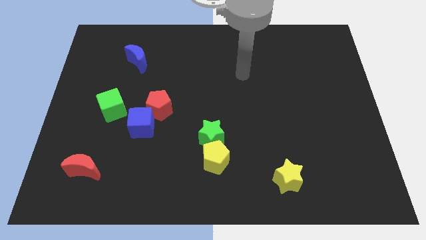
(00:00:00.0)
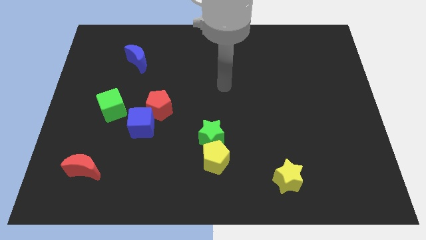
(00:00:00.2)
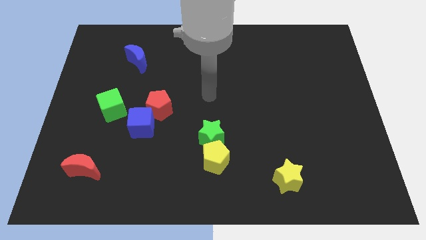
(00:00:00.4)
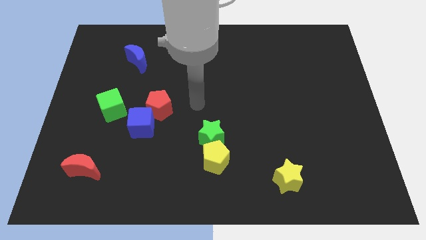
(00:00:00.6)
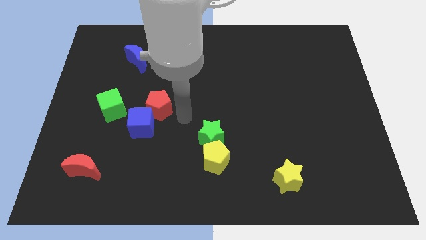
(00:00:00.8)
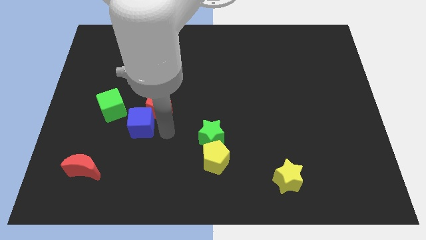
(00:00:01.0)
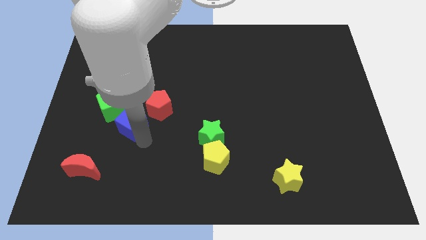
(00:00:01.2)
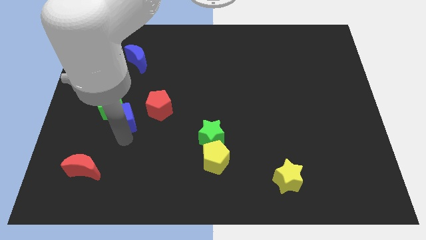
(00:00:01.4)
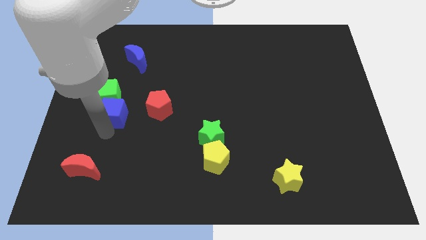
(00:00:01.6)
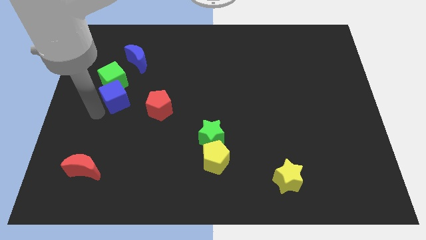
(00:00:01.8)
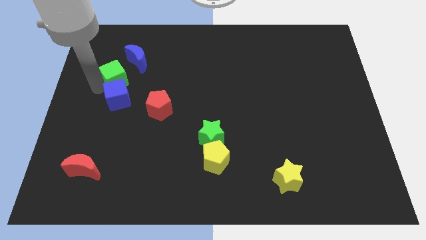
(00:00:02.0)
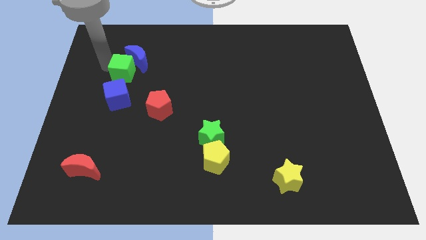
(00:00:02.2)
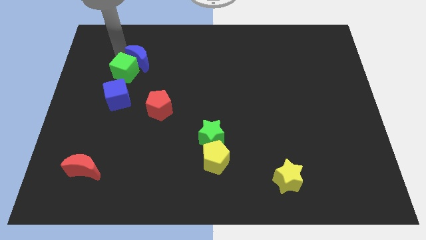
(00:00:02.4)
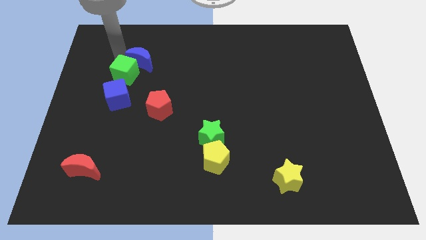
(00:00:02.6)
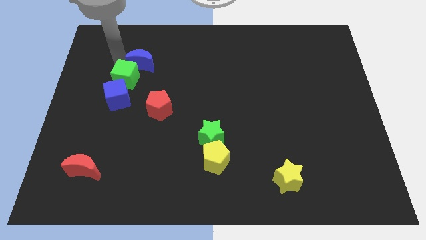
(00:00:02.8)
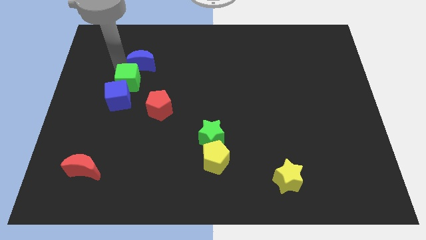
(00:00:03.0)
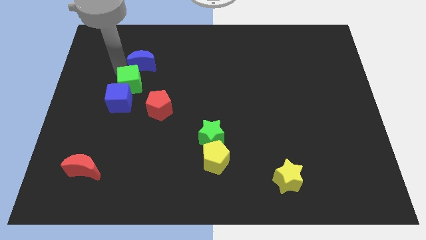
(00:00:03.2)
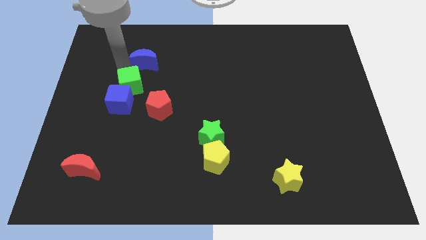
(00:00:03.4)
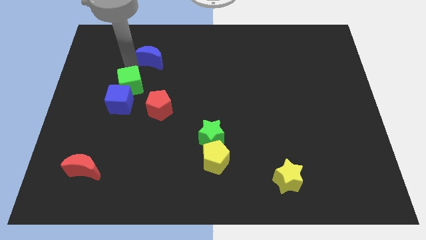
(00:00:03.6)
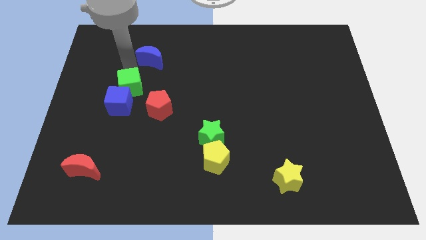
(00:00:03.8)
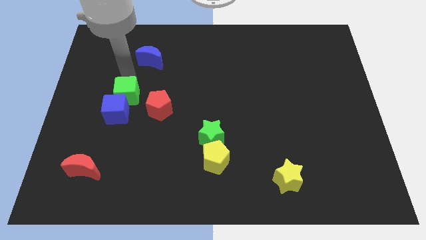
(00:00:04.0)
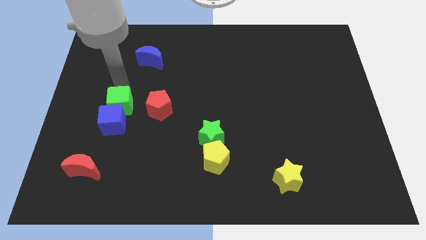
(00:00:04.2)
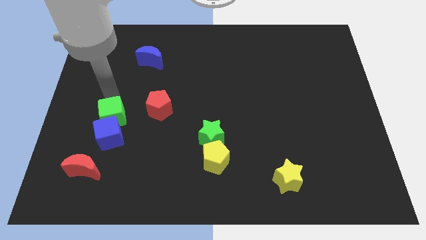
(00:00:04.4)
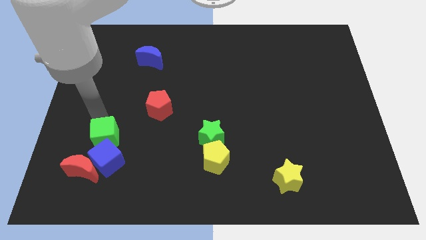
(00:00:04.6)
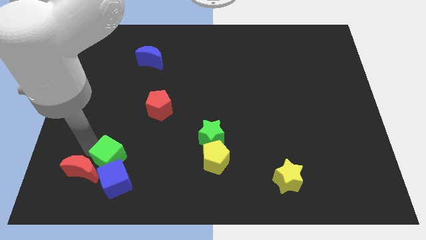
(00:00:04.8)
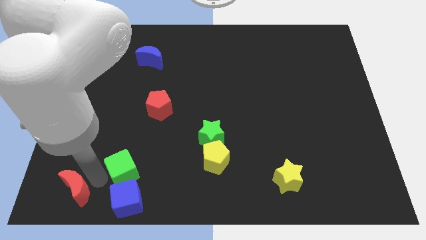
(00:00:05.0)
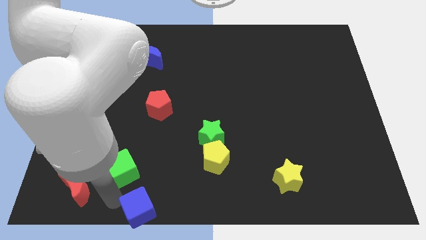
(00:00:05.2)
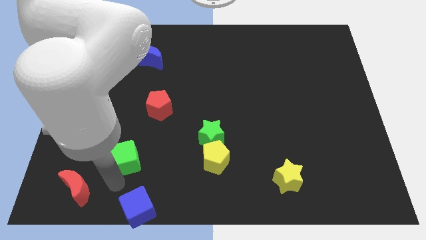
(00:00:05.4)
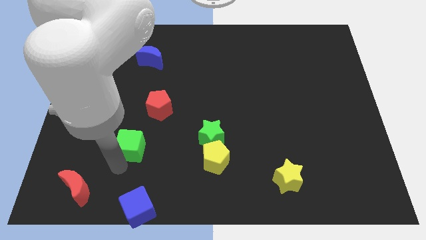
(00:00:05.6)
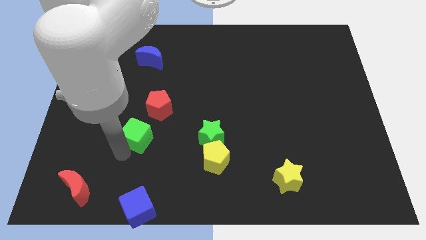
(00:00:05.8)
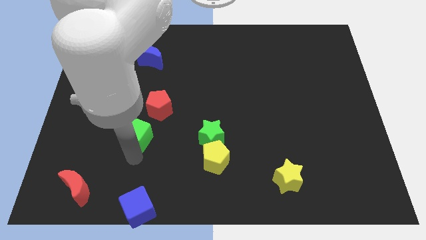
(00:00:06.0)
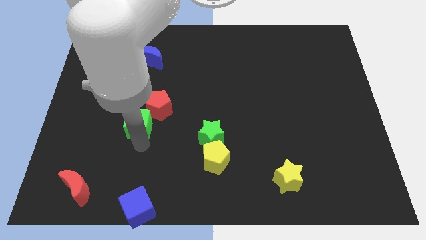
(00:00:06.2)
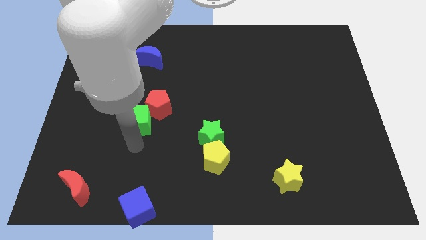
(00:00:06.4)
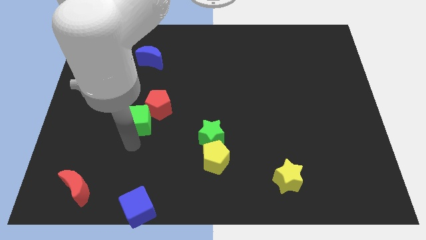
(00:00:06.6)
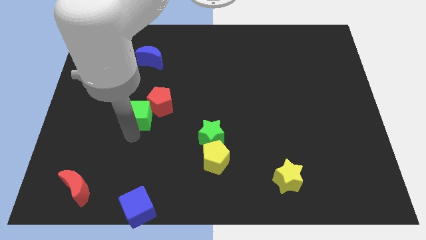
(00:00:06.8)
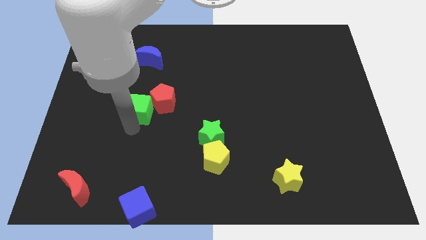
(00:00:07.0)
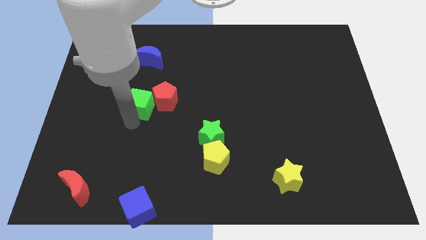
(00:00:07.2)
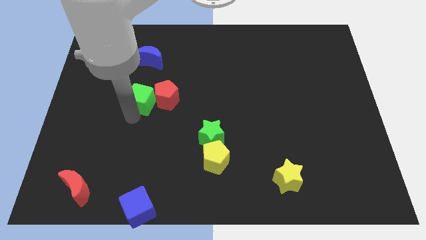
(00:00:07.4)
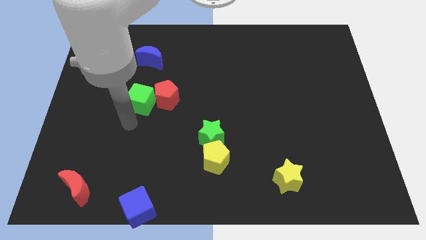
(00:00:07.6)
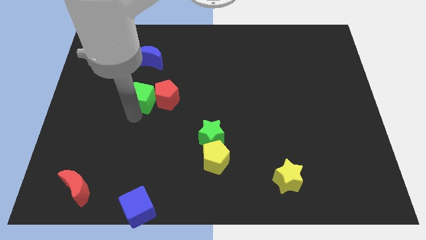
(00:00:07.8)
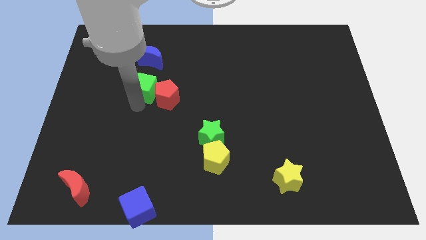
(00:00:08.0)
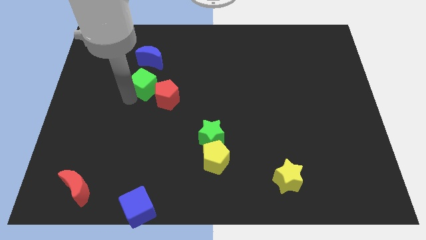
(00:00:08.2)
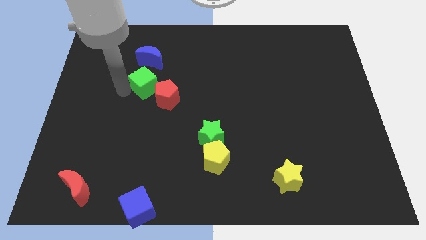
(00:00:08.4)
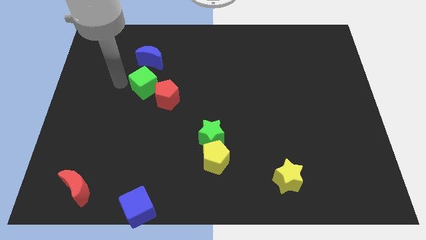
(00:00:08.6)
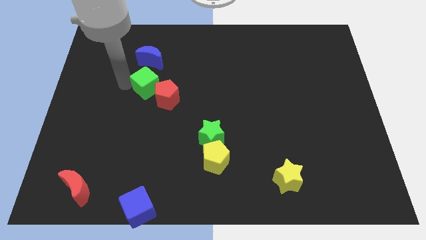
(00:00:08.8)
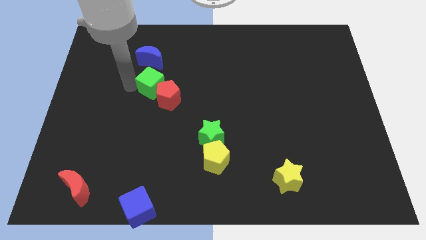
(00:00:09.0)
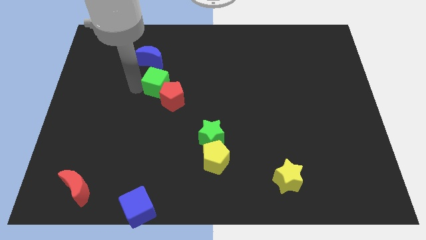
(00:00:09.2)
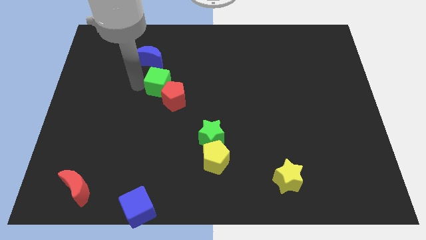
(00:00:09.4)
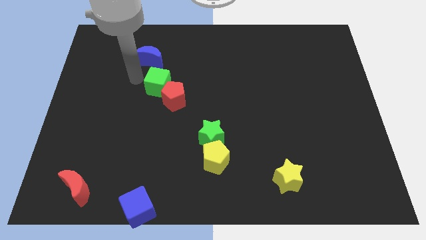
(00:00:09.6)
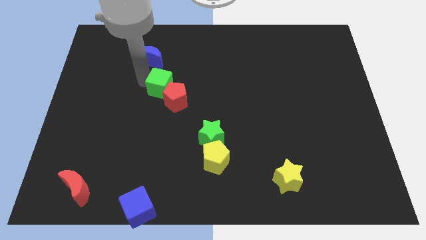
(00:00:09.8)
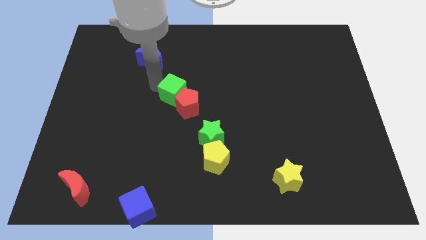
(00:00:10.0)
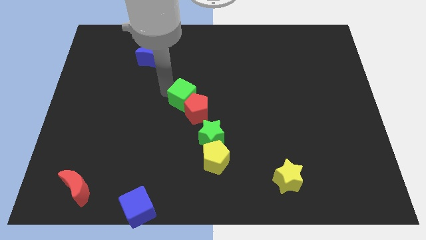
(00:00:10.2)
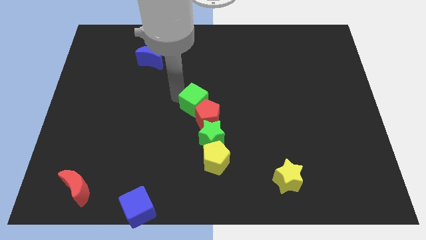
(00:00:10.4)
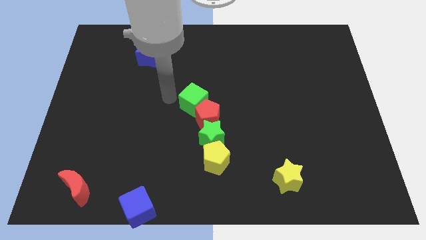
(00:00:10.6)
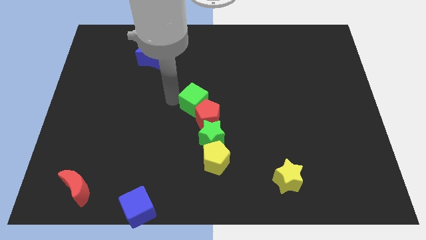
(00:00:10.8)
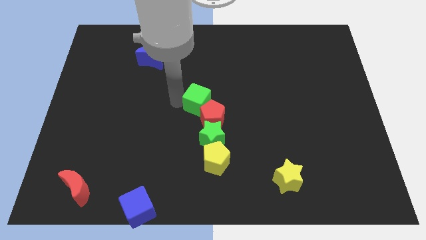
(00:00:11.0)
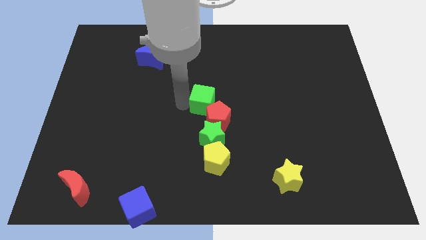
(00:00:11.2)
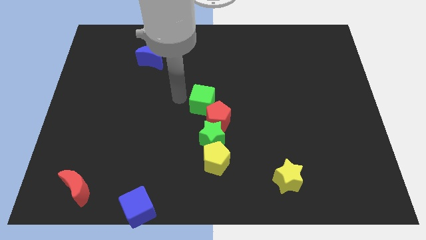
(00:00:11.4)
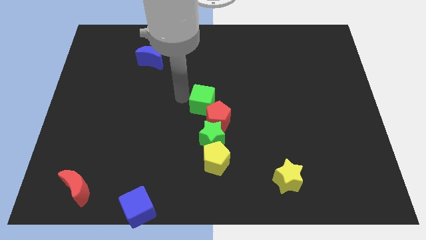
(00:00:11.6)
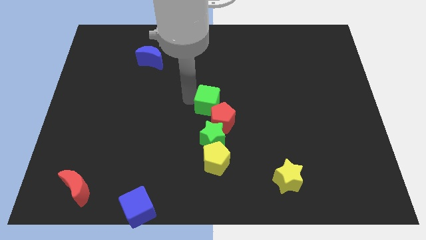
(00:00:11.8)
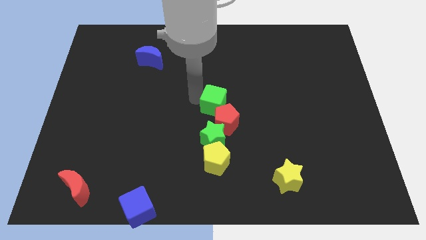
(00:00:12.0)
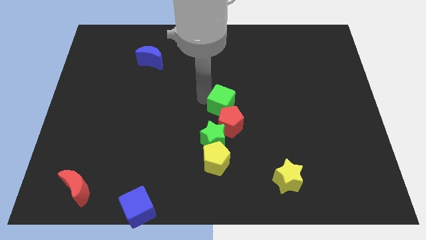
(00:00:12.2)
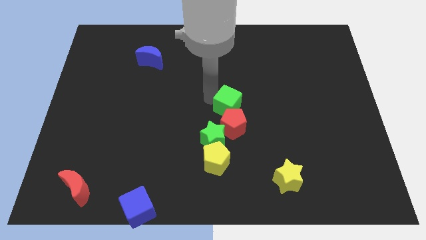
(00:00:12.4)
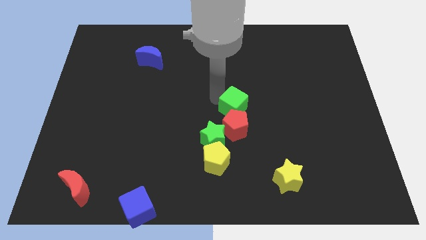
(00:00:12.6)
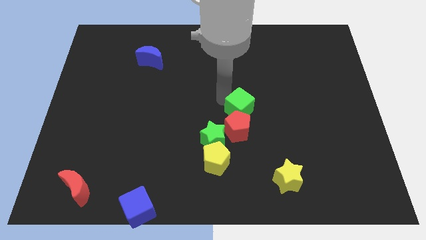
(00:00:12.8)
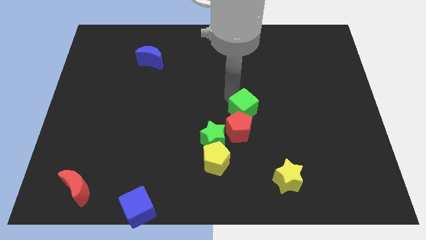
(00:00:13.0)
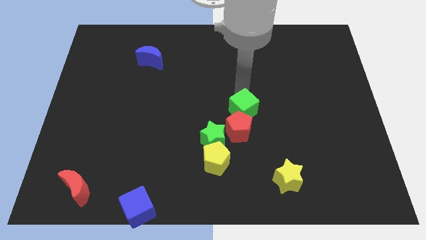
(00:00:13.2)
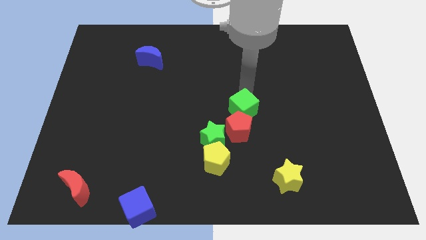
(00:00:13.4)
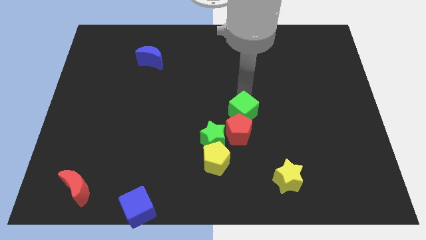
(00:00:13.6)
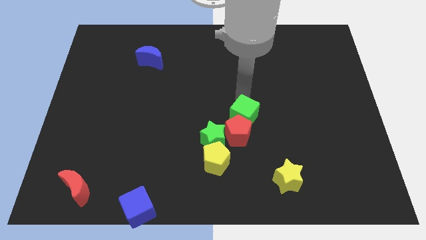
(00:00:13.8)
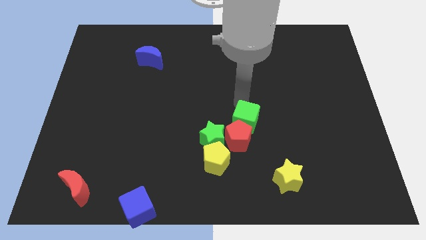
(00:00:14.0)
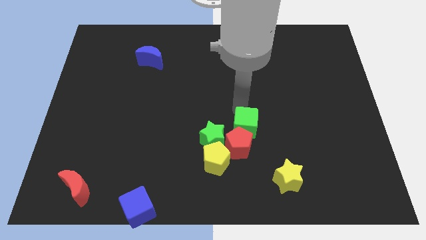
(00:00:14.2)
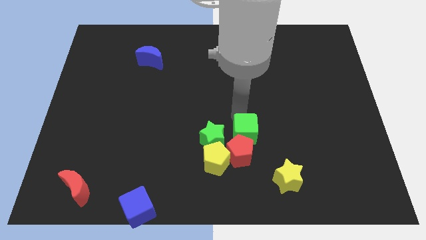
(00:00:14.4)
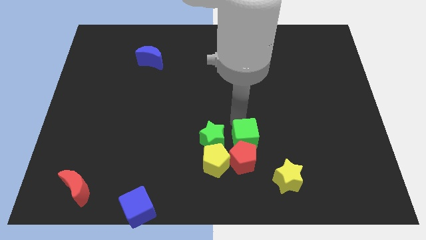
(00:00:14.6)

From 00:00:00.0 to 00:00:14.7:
slide the green cube to the top left side of the yellow star
